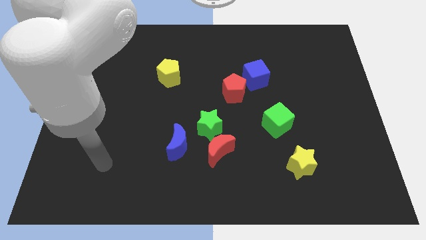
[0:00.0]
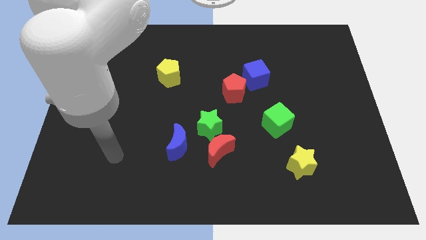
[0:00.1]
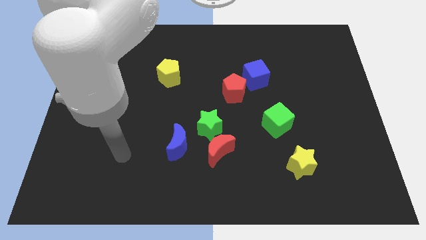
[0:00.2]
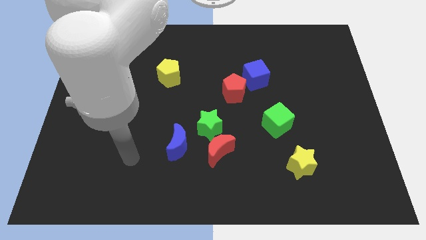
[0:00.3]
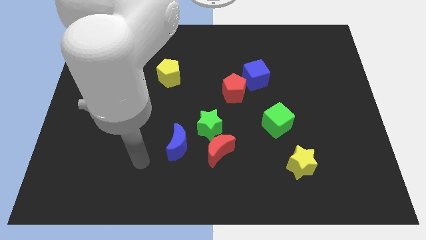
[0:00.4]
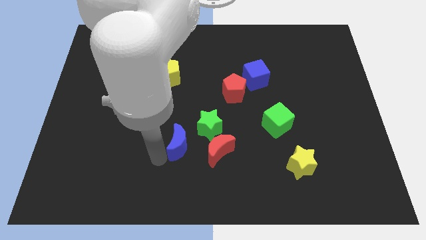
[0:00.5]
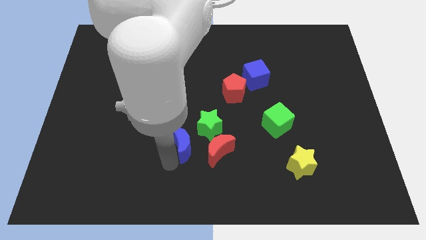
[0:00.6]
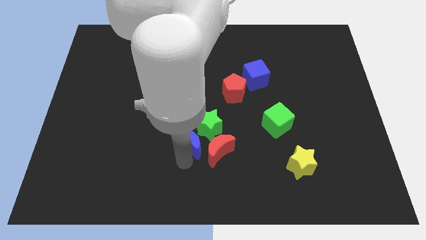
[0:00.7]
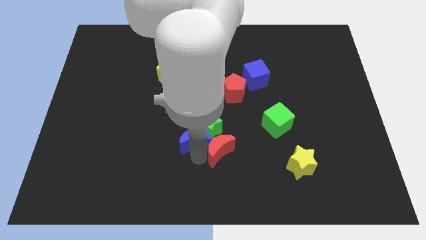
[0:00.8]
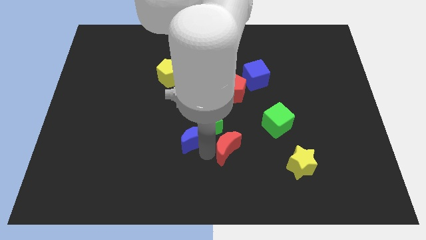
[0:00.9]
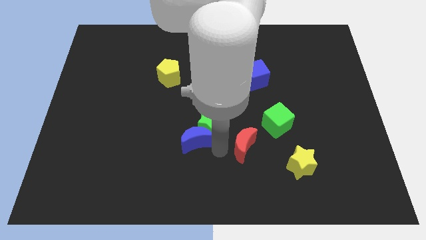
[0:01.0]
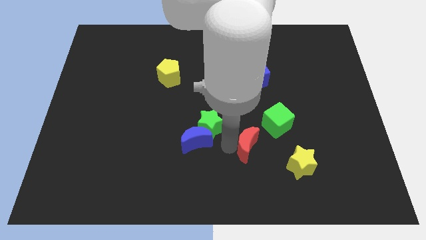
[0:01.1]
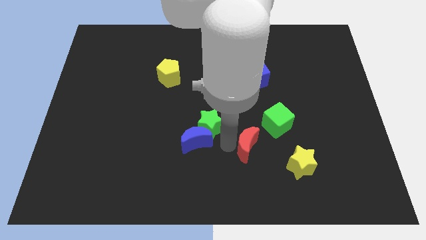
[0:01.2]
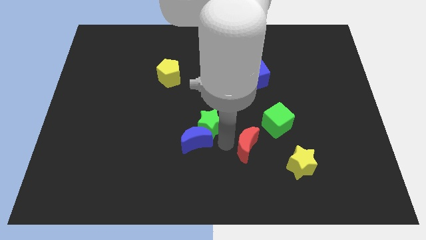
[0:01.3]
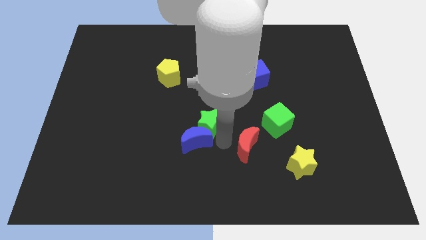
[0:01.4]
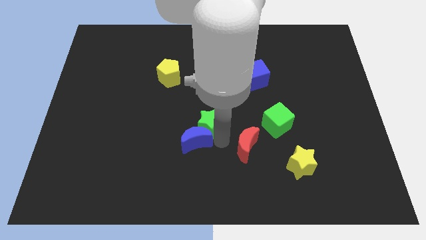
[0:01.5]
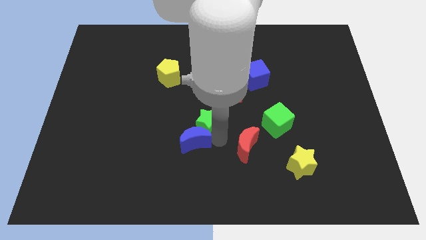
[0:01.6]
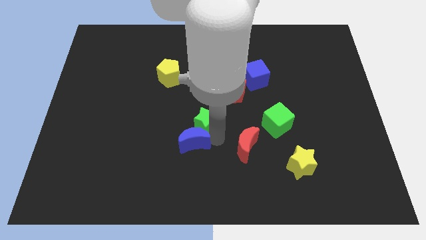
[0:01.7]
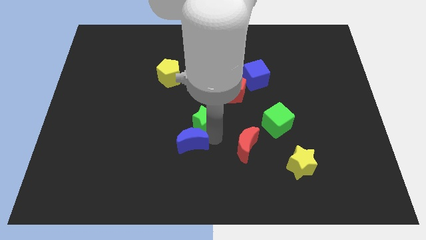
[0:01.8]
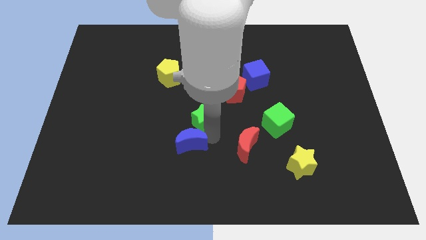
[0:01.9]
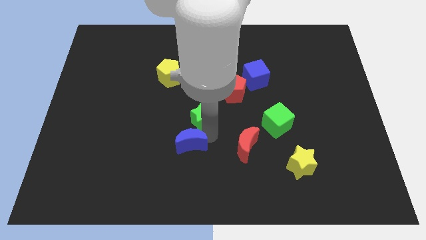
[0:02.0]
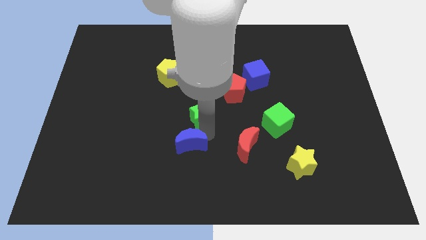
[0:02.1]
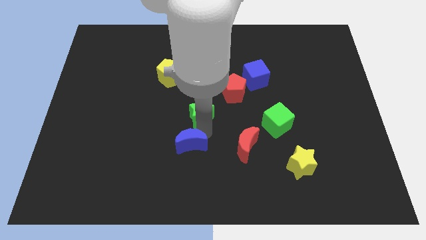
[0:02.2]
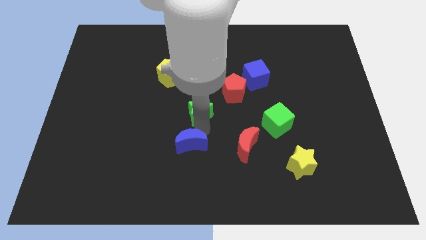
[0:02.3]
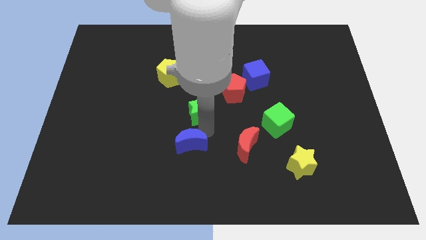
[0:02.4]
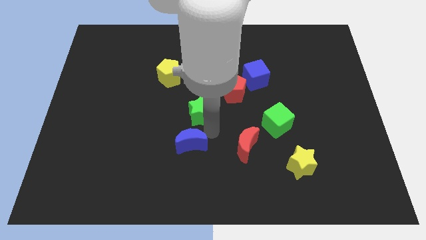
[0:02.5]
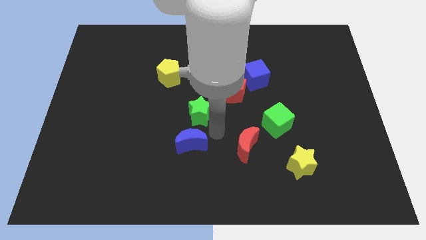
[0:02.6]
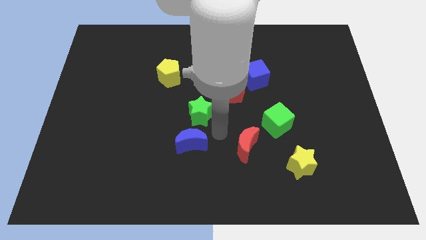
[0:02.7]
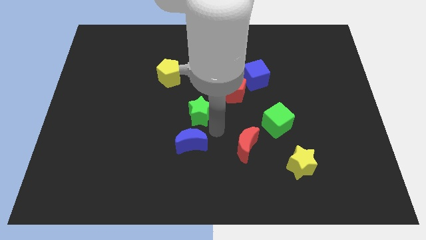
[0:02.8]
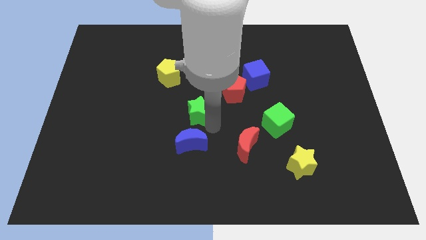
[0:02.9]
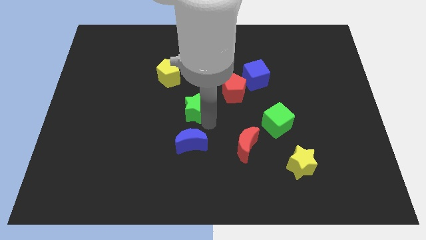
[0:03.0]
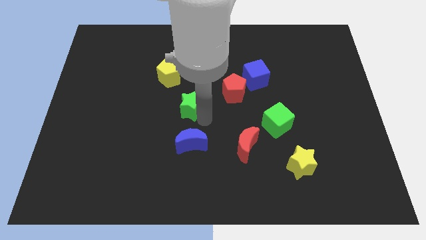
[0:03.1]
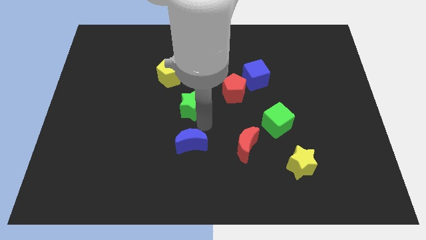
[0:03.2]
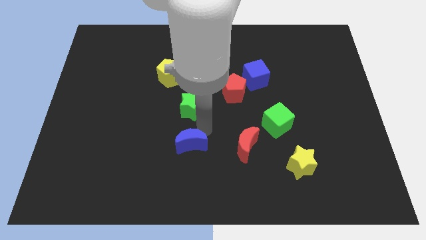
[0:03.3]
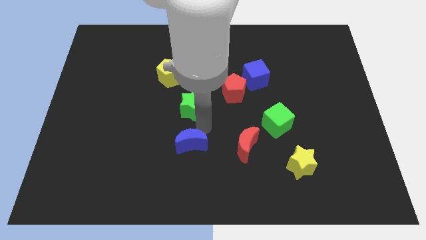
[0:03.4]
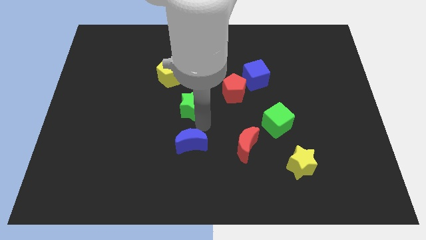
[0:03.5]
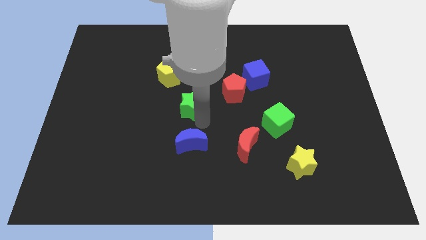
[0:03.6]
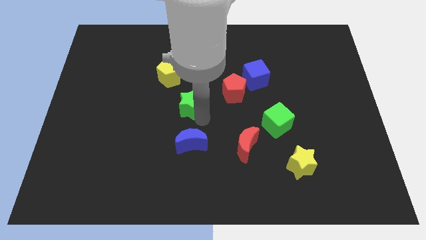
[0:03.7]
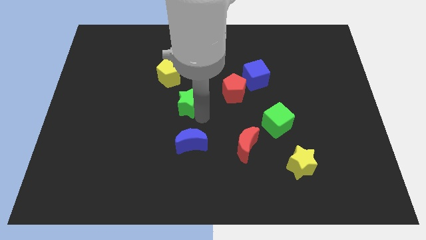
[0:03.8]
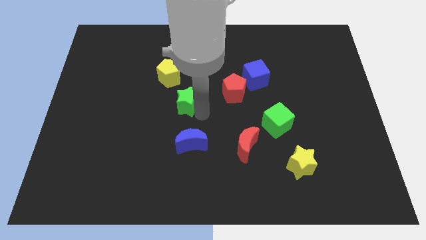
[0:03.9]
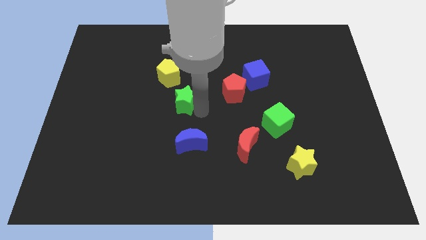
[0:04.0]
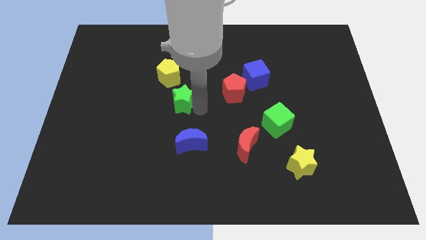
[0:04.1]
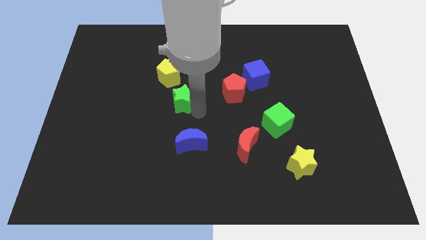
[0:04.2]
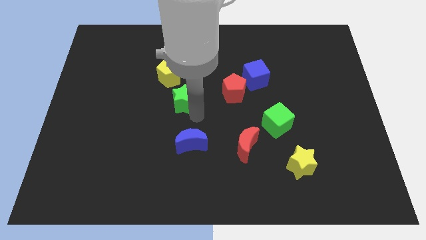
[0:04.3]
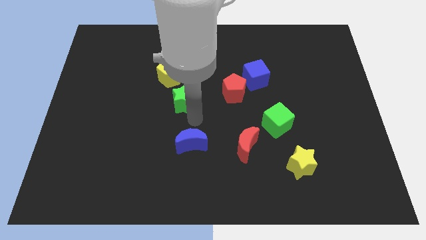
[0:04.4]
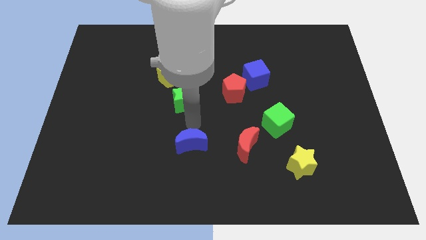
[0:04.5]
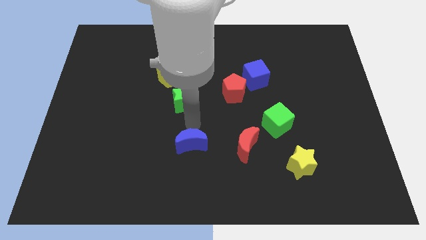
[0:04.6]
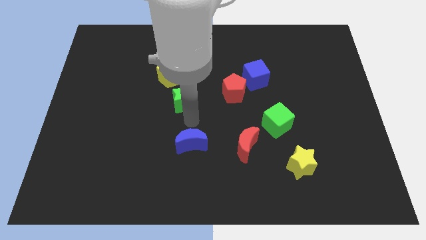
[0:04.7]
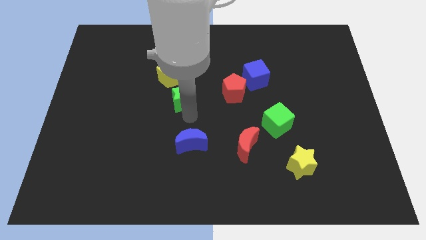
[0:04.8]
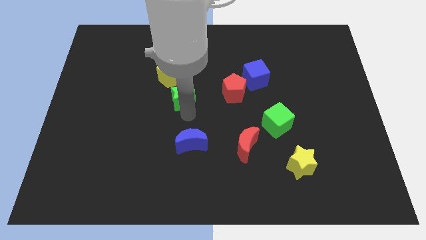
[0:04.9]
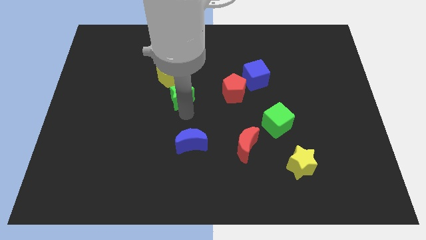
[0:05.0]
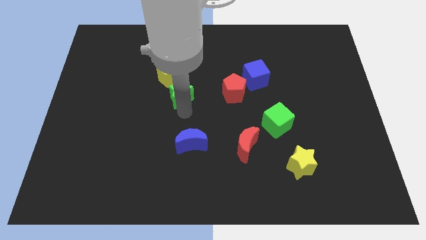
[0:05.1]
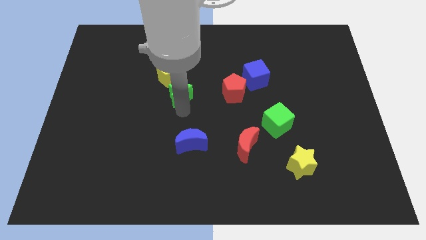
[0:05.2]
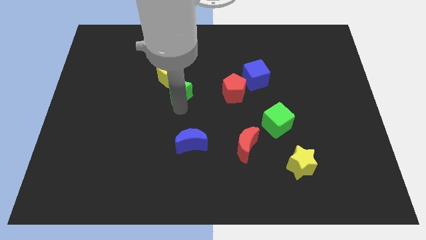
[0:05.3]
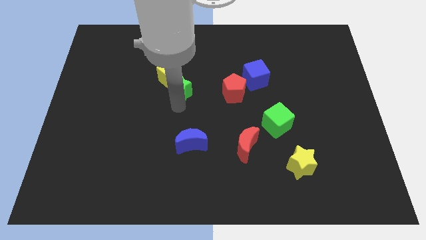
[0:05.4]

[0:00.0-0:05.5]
move the green star to the yellow pentagon

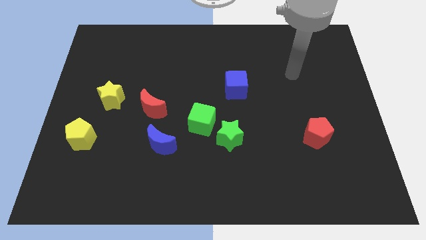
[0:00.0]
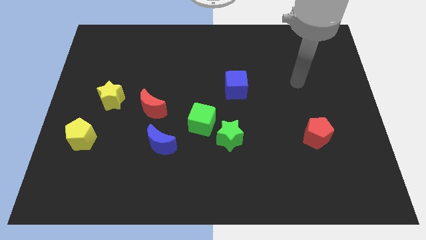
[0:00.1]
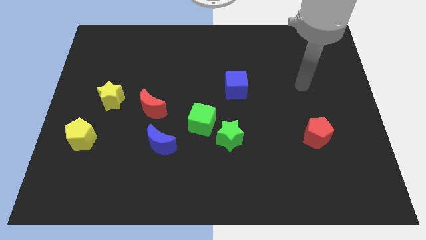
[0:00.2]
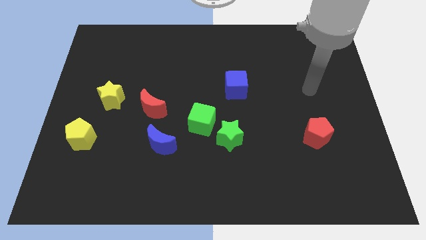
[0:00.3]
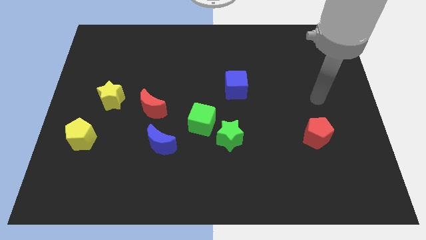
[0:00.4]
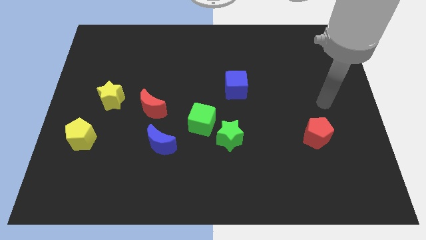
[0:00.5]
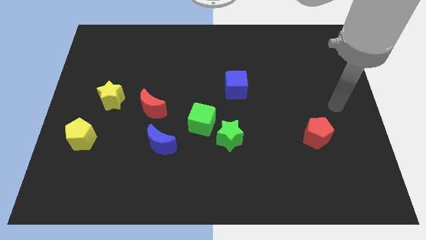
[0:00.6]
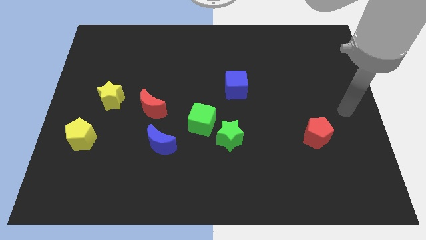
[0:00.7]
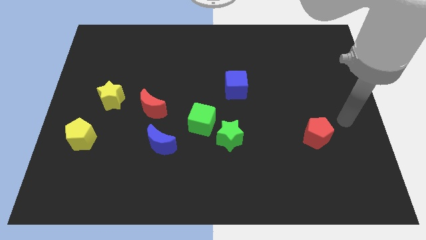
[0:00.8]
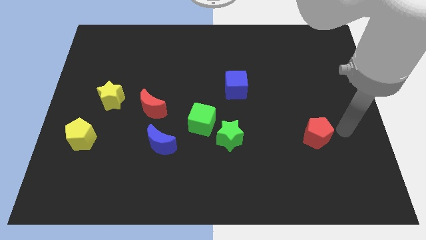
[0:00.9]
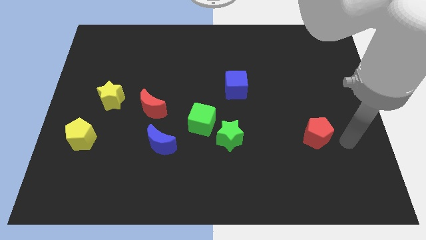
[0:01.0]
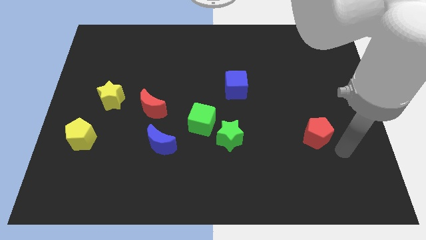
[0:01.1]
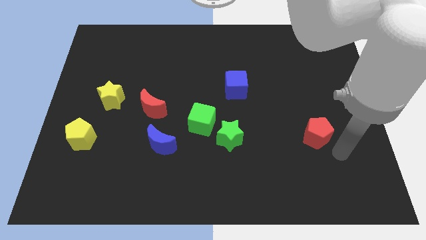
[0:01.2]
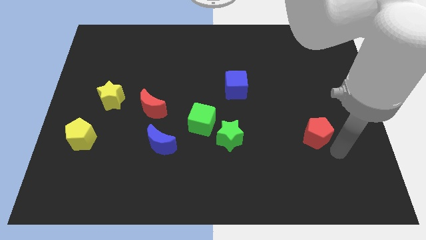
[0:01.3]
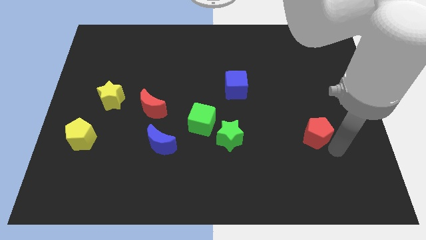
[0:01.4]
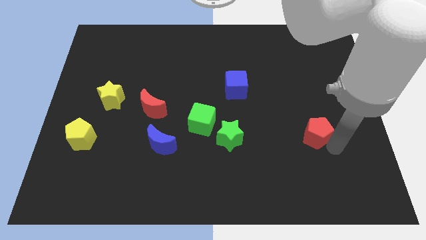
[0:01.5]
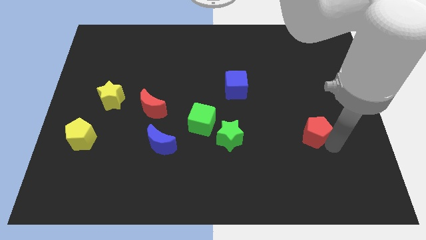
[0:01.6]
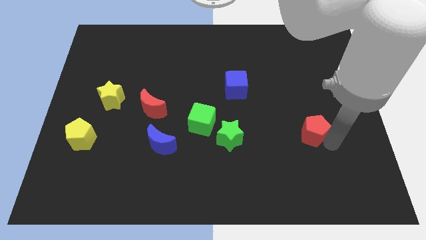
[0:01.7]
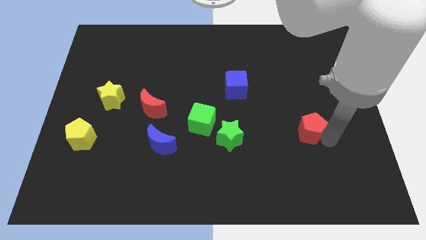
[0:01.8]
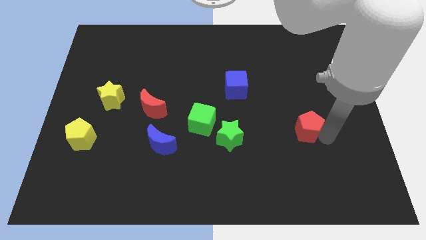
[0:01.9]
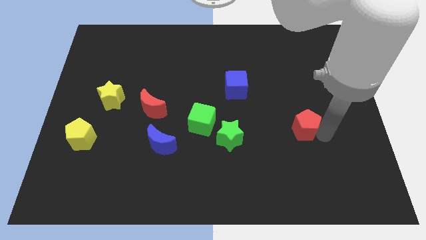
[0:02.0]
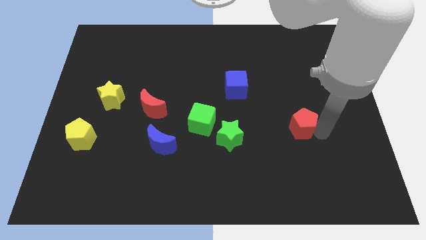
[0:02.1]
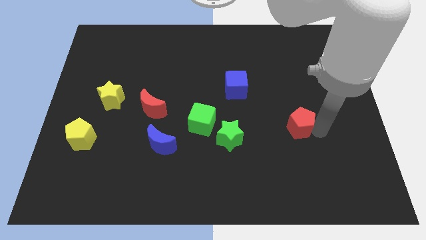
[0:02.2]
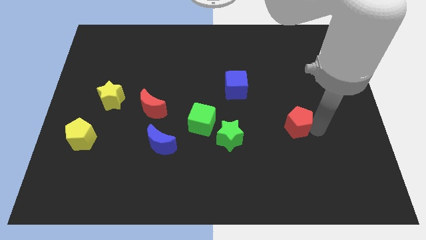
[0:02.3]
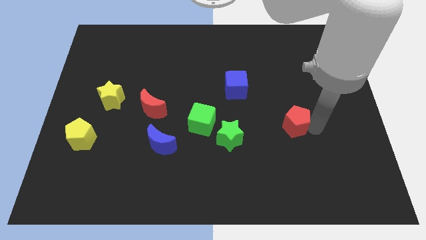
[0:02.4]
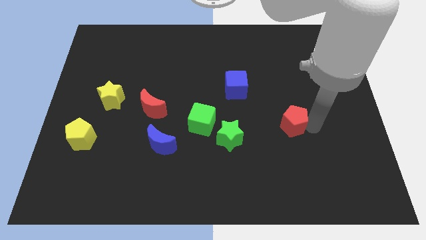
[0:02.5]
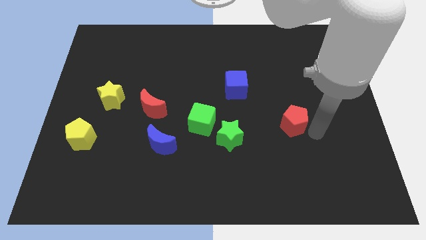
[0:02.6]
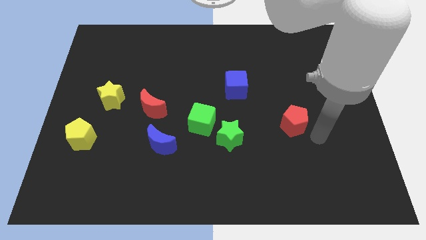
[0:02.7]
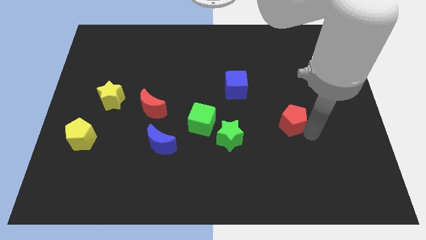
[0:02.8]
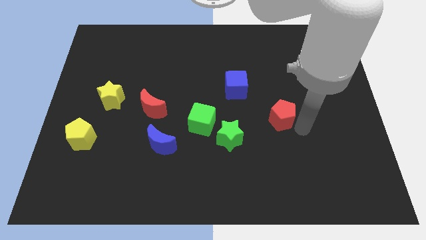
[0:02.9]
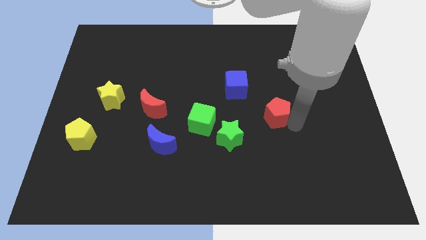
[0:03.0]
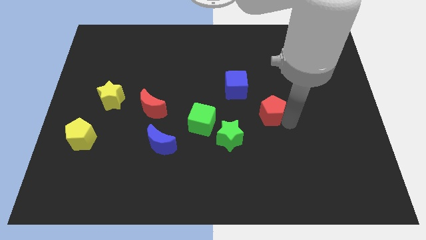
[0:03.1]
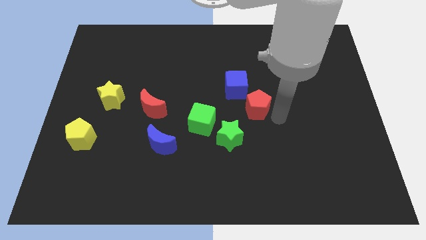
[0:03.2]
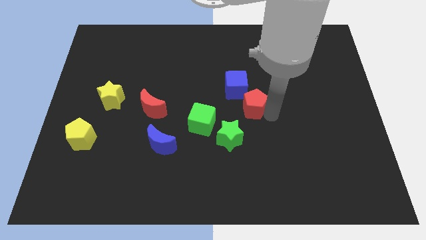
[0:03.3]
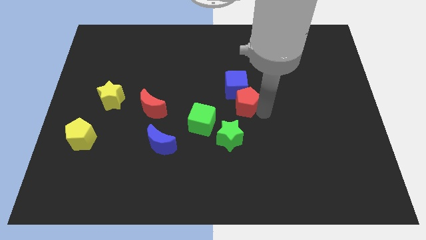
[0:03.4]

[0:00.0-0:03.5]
push the red pentagon to the blue cube
